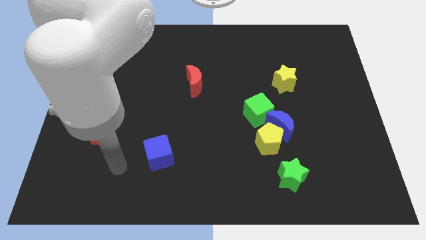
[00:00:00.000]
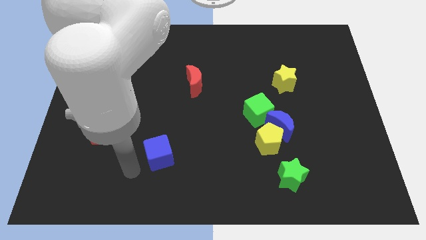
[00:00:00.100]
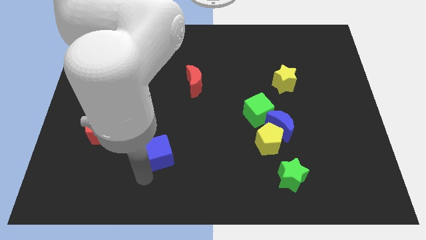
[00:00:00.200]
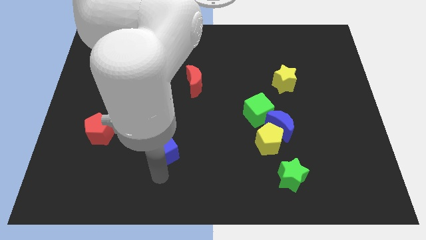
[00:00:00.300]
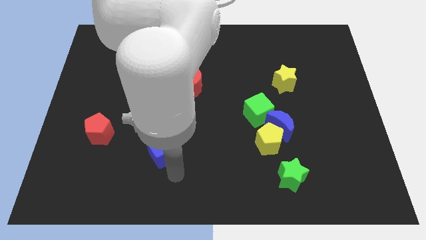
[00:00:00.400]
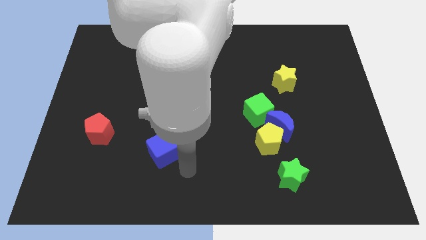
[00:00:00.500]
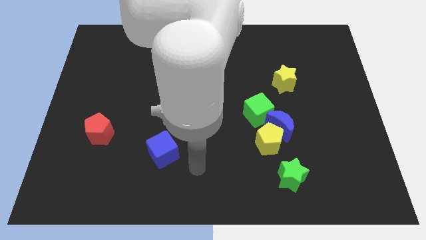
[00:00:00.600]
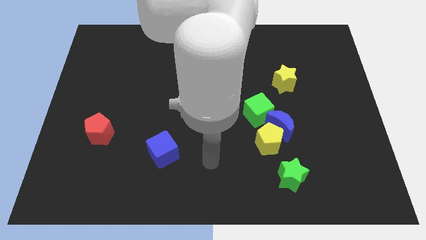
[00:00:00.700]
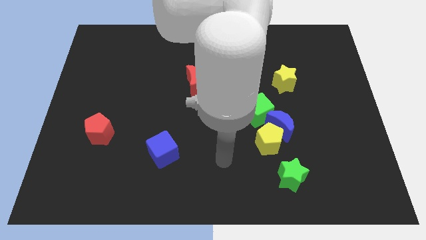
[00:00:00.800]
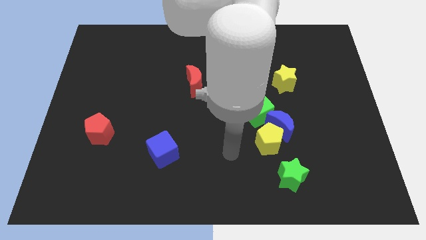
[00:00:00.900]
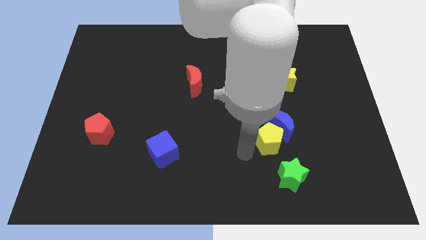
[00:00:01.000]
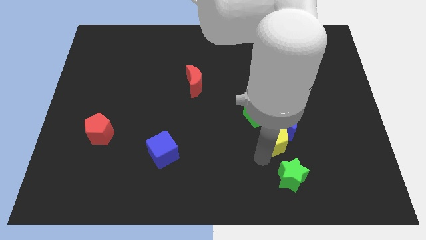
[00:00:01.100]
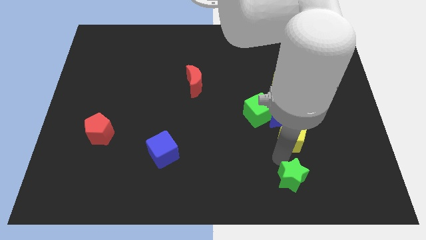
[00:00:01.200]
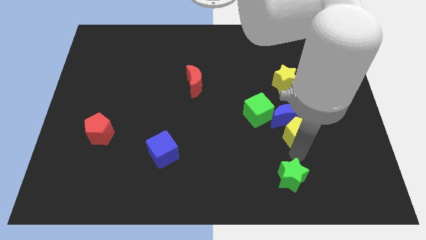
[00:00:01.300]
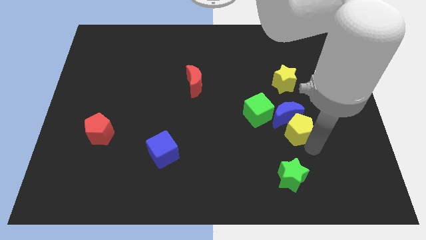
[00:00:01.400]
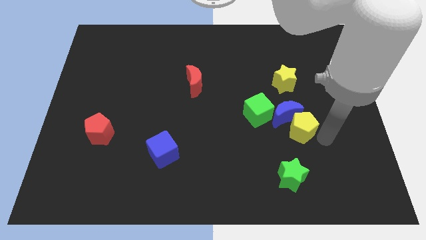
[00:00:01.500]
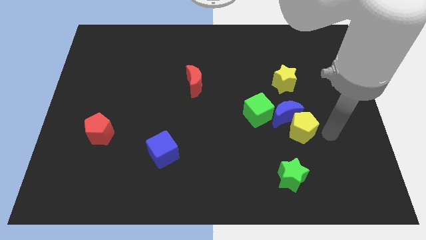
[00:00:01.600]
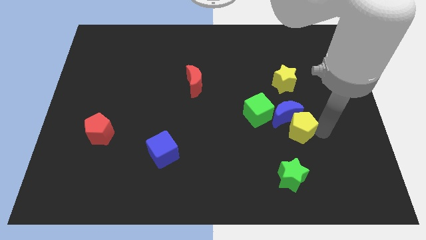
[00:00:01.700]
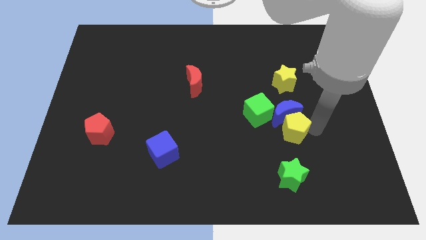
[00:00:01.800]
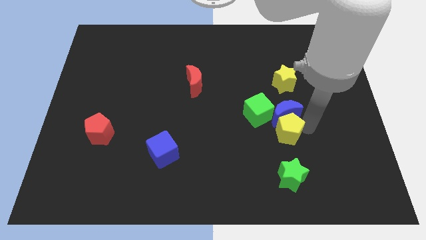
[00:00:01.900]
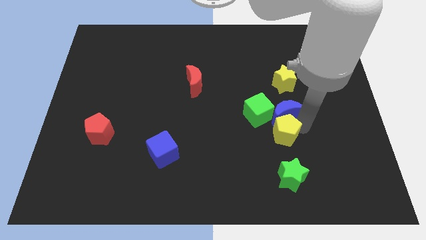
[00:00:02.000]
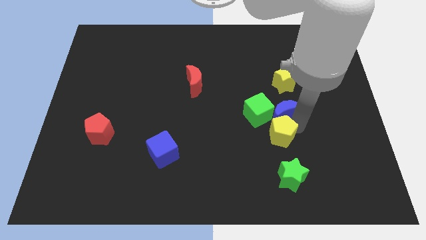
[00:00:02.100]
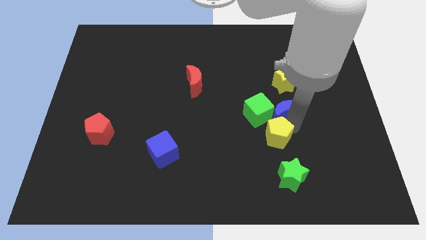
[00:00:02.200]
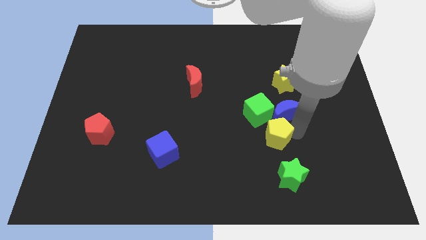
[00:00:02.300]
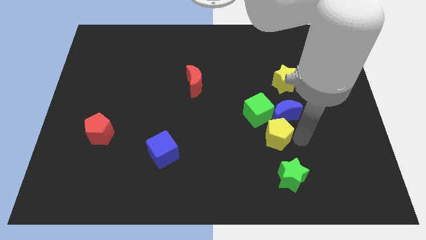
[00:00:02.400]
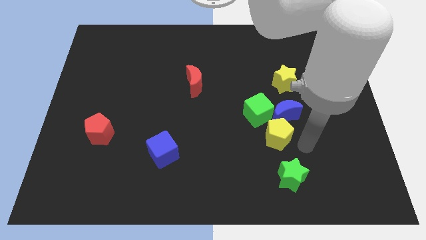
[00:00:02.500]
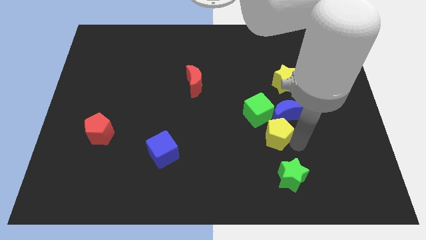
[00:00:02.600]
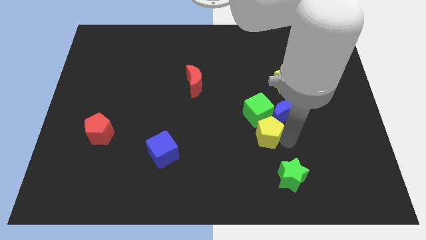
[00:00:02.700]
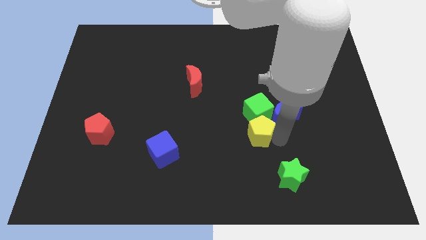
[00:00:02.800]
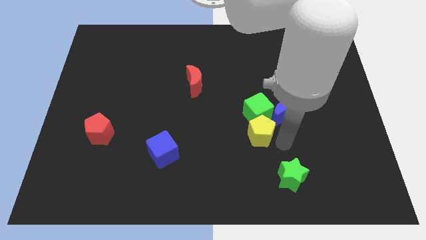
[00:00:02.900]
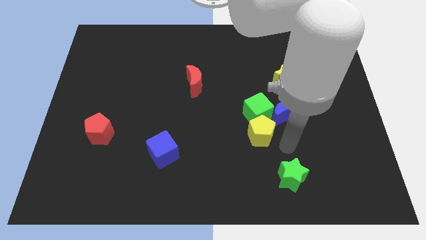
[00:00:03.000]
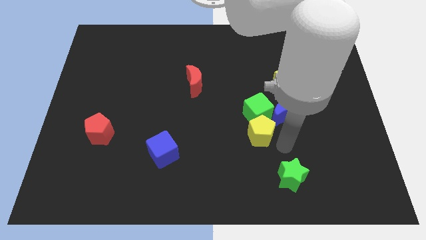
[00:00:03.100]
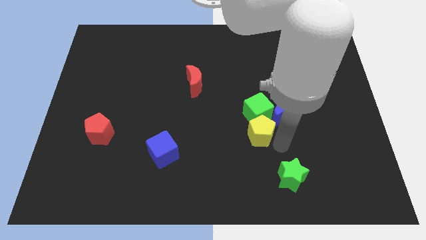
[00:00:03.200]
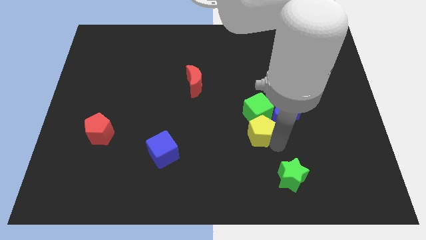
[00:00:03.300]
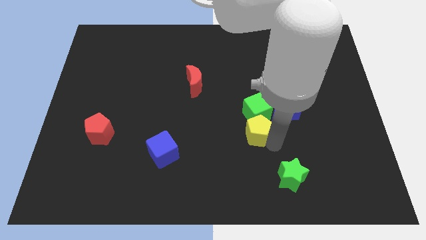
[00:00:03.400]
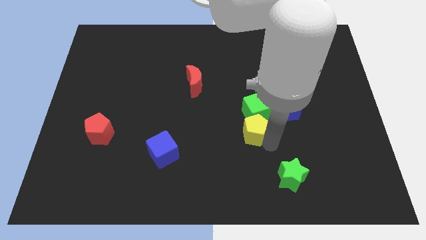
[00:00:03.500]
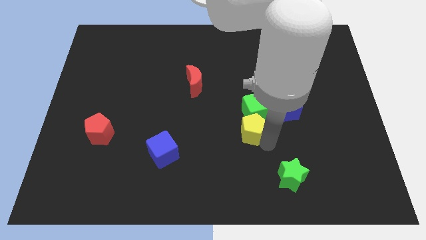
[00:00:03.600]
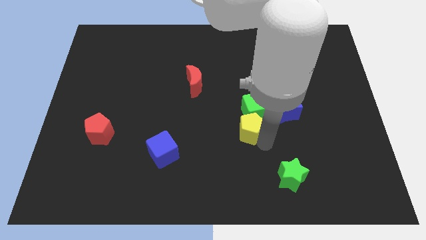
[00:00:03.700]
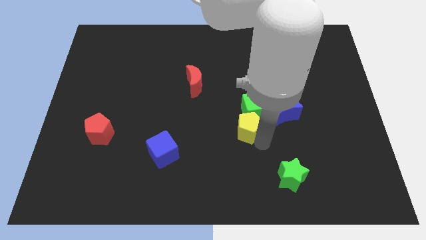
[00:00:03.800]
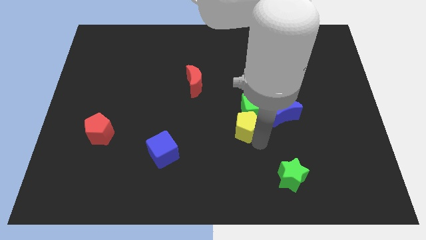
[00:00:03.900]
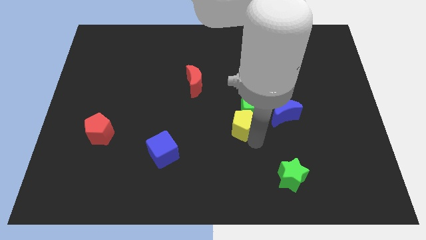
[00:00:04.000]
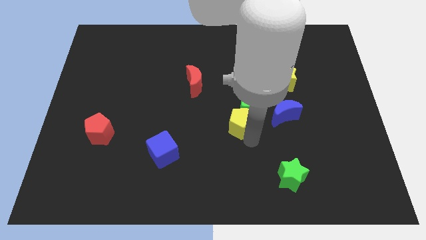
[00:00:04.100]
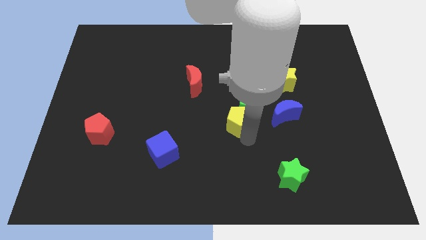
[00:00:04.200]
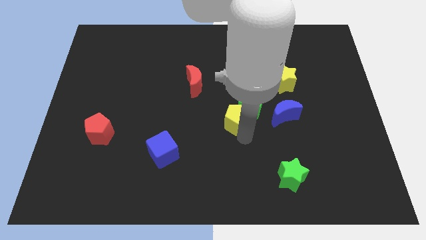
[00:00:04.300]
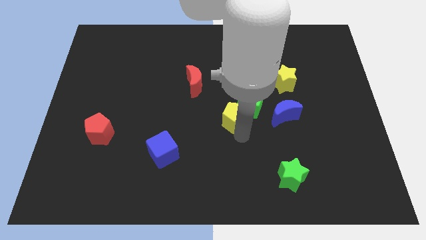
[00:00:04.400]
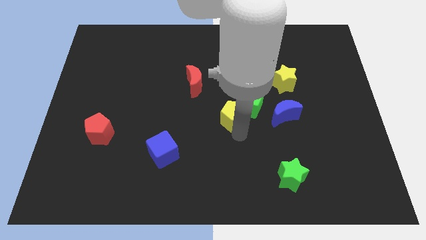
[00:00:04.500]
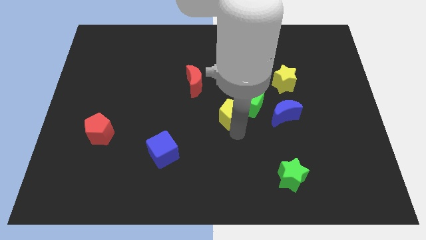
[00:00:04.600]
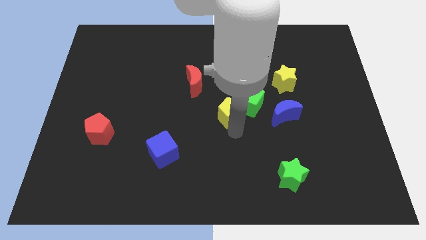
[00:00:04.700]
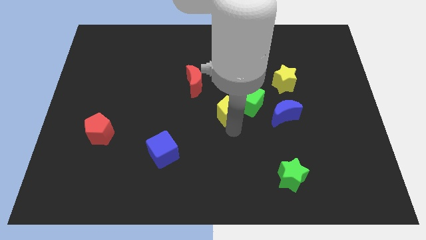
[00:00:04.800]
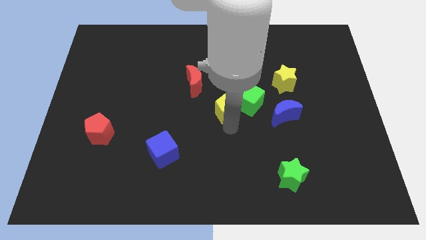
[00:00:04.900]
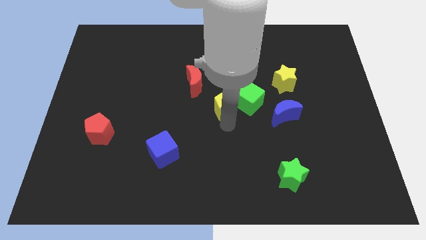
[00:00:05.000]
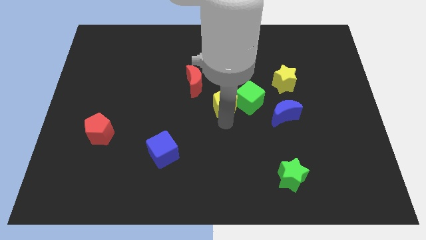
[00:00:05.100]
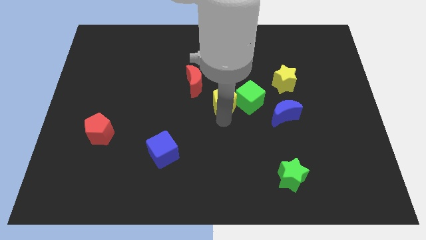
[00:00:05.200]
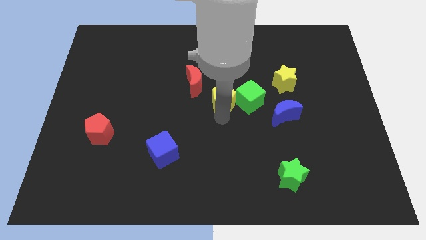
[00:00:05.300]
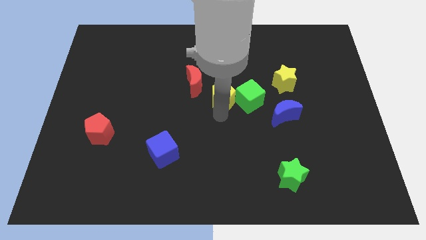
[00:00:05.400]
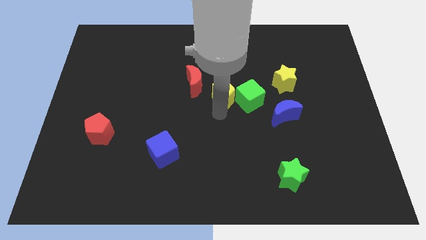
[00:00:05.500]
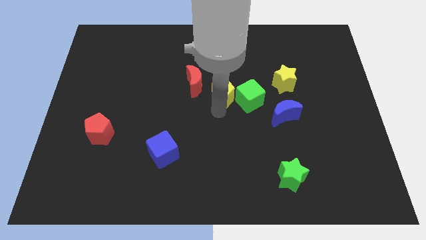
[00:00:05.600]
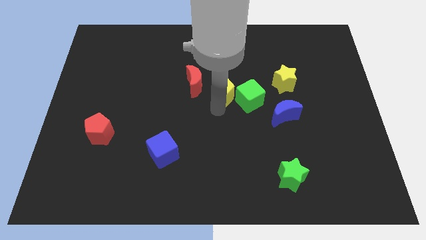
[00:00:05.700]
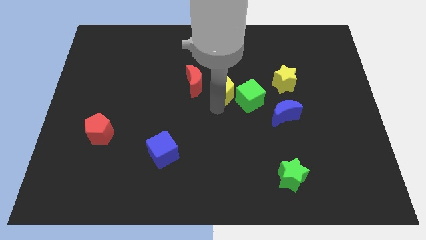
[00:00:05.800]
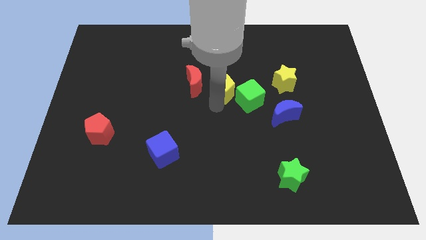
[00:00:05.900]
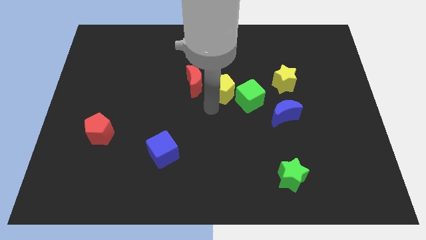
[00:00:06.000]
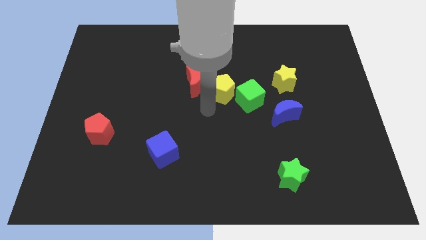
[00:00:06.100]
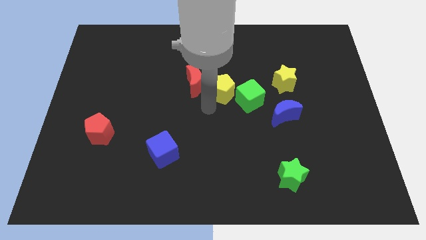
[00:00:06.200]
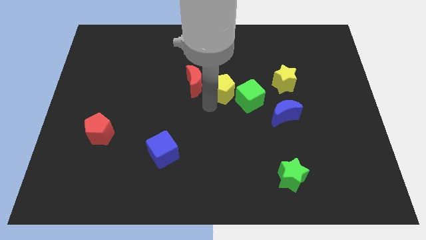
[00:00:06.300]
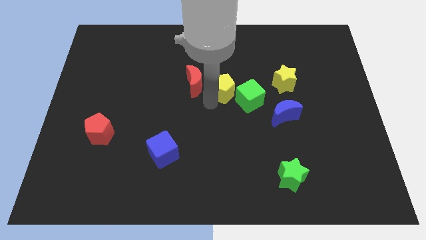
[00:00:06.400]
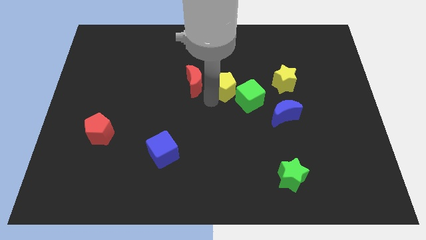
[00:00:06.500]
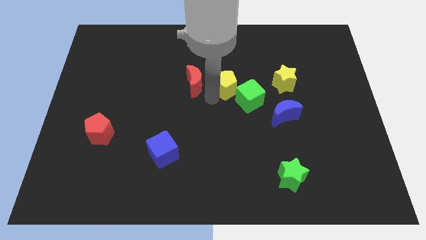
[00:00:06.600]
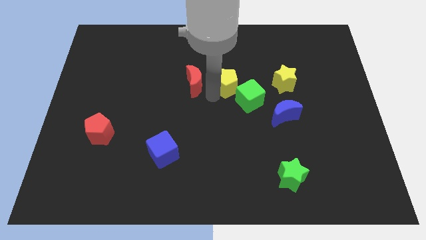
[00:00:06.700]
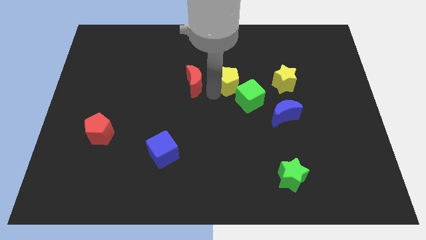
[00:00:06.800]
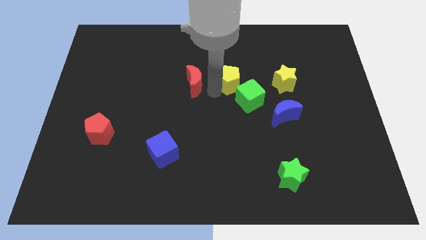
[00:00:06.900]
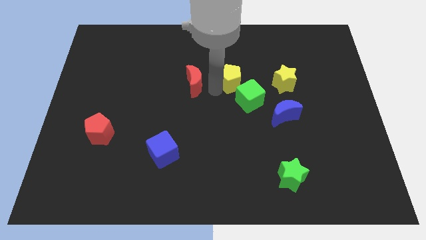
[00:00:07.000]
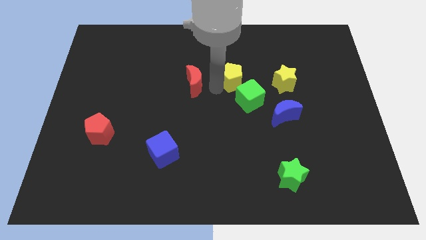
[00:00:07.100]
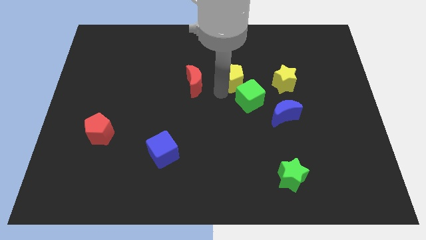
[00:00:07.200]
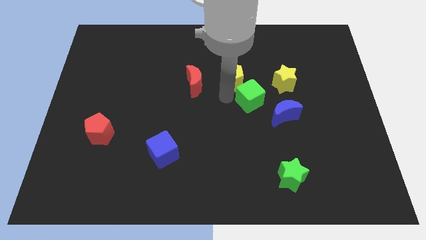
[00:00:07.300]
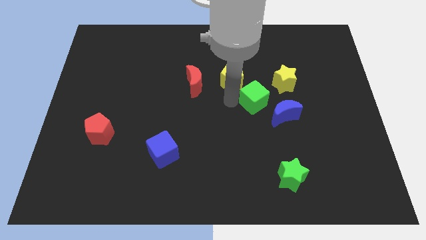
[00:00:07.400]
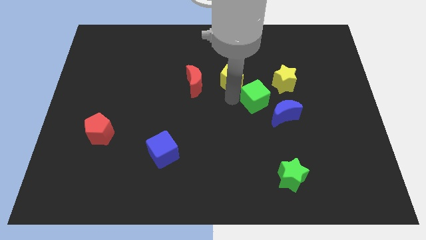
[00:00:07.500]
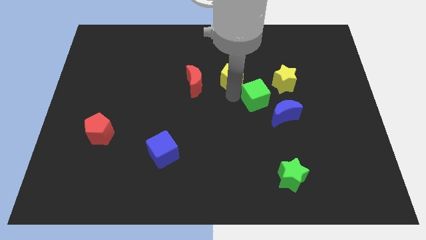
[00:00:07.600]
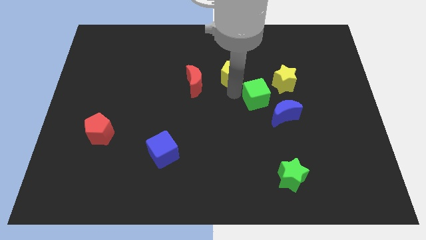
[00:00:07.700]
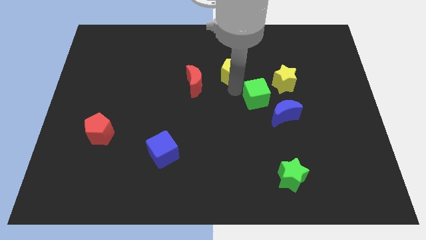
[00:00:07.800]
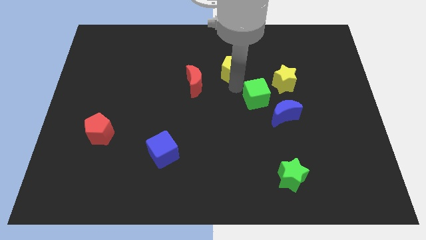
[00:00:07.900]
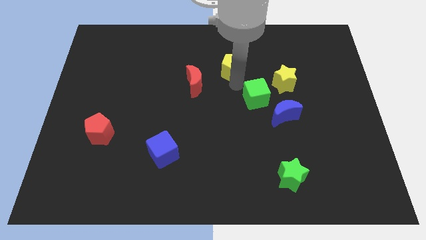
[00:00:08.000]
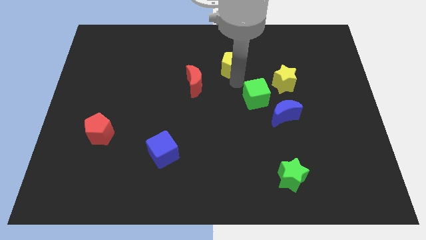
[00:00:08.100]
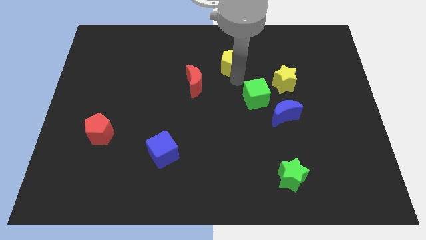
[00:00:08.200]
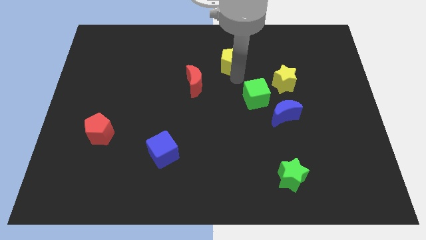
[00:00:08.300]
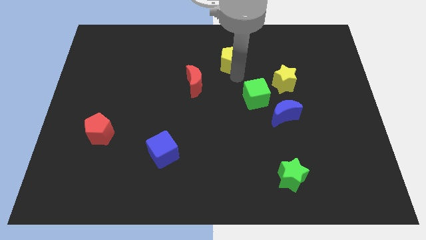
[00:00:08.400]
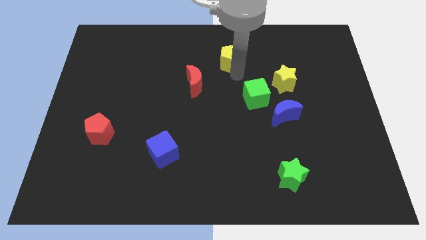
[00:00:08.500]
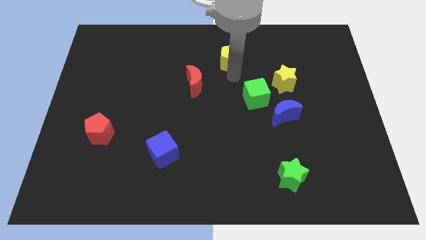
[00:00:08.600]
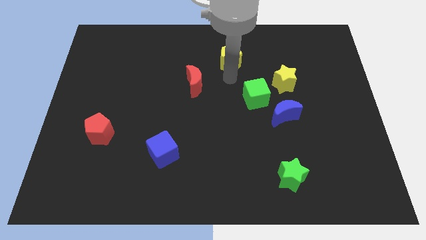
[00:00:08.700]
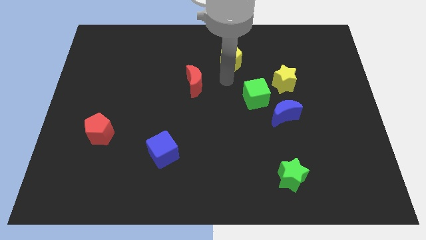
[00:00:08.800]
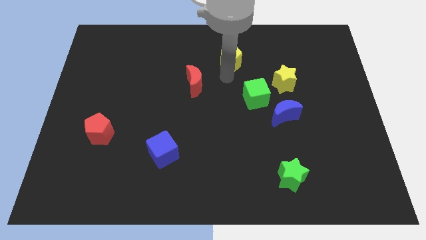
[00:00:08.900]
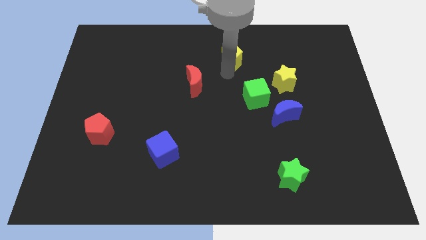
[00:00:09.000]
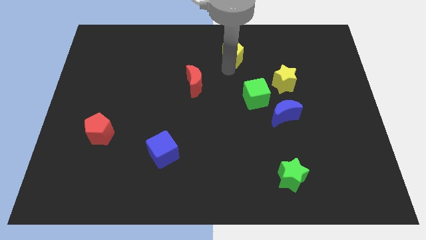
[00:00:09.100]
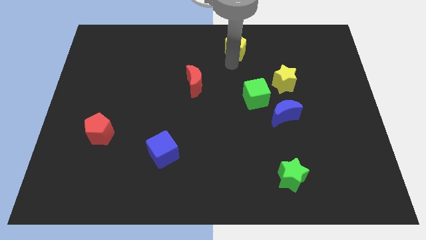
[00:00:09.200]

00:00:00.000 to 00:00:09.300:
slide the yellow pentagon to the towards your base
